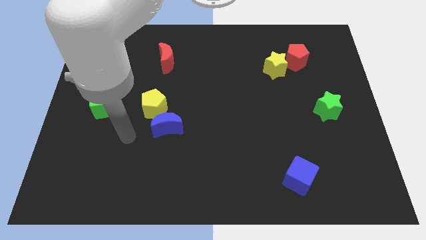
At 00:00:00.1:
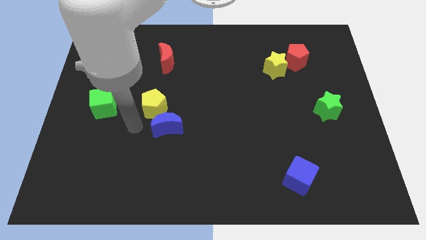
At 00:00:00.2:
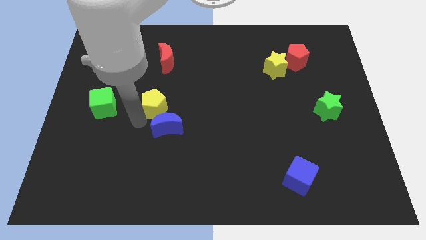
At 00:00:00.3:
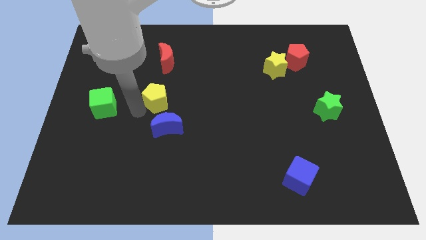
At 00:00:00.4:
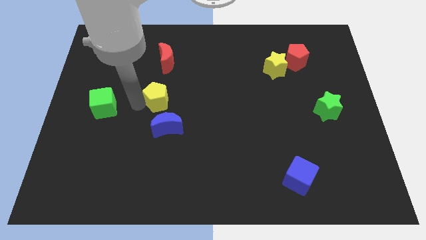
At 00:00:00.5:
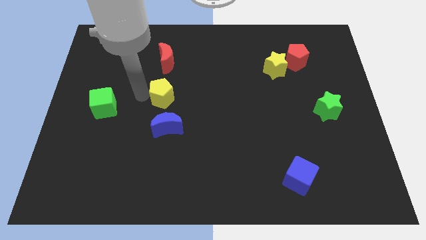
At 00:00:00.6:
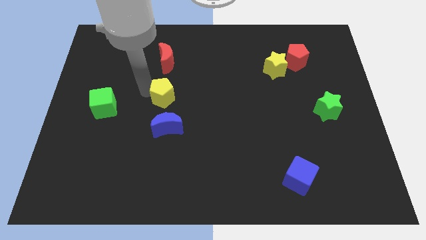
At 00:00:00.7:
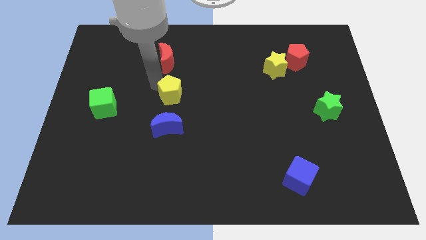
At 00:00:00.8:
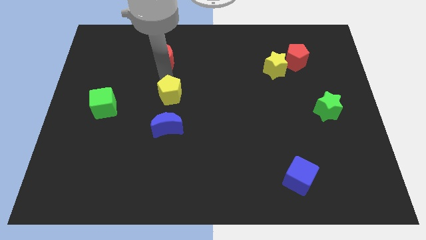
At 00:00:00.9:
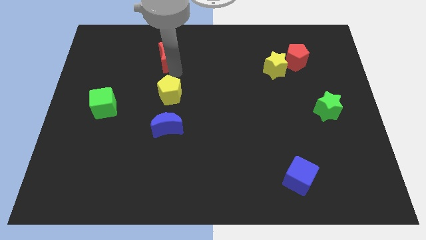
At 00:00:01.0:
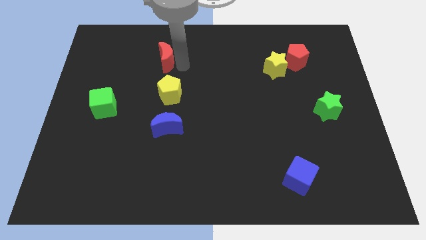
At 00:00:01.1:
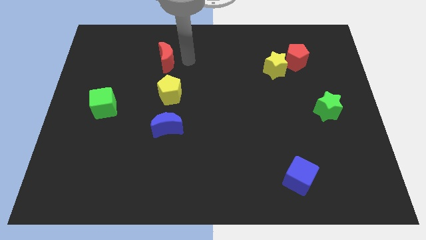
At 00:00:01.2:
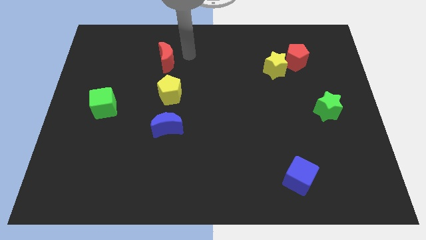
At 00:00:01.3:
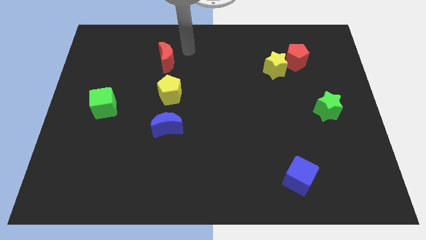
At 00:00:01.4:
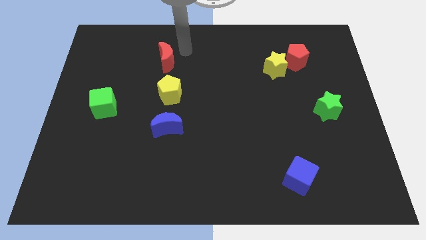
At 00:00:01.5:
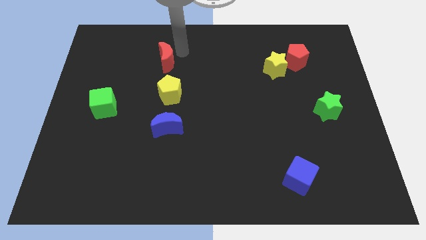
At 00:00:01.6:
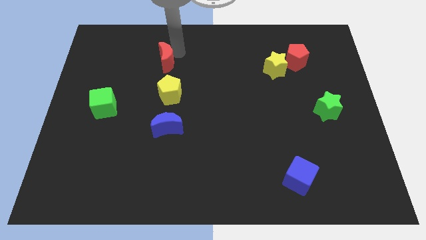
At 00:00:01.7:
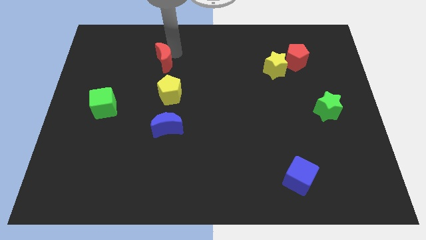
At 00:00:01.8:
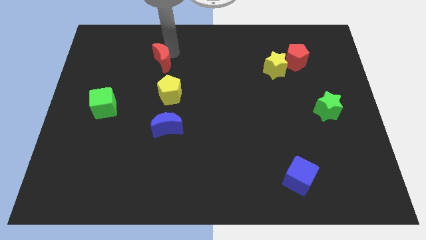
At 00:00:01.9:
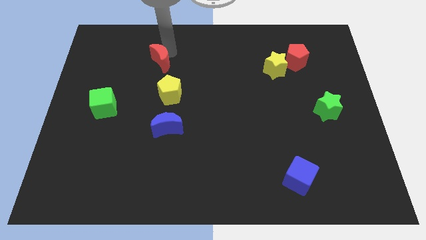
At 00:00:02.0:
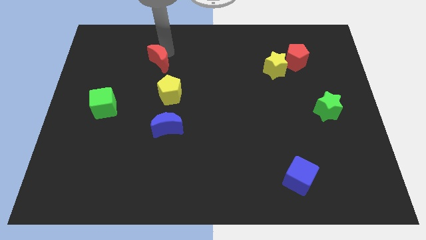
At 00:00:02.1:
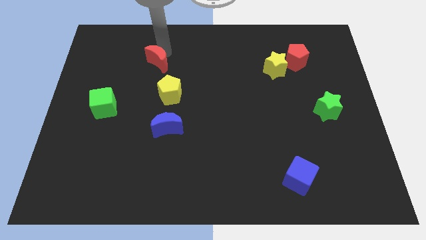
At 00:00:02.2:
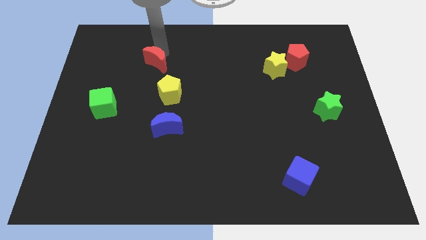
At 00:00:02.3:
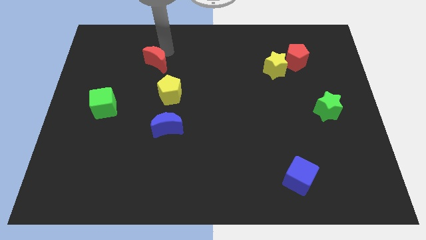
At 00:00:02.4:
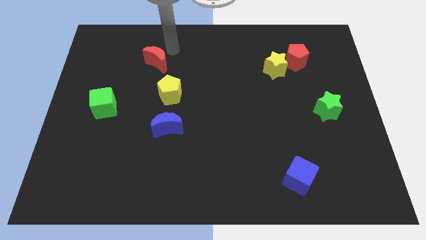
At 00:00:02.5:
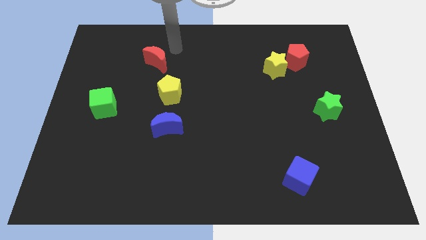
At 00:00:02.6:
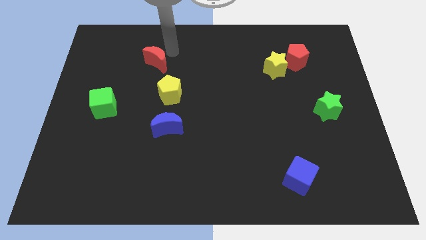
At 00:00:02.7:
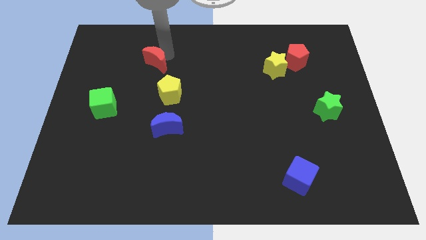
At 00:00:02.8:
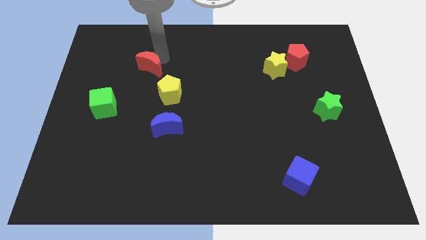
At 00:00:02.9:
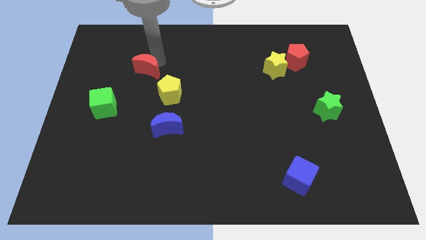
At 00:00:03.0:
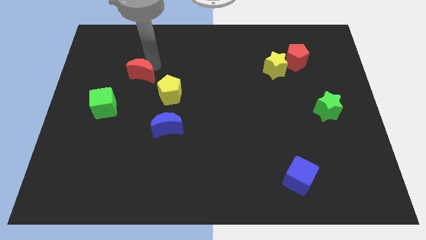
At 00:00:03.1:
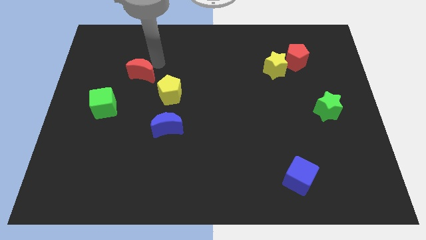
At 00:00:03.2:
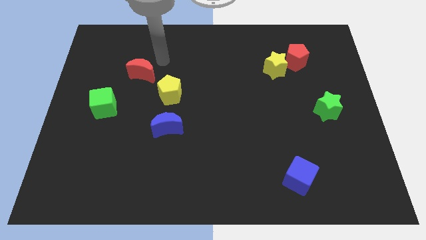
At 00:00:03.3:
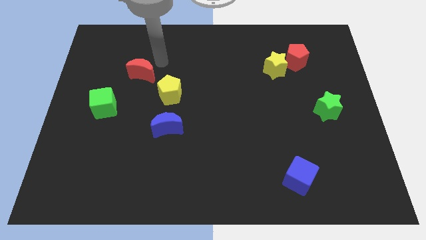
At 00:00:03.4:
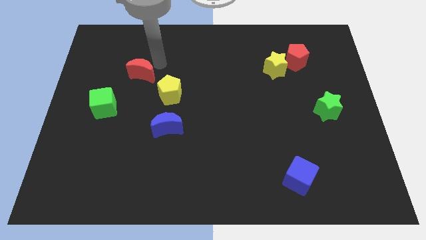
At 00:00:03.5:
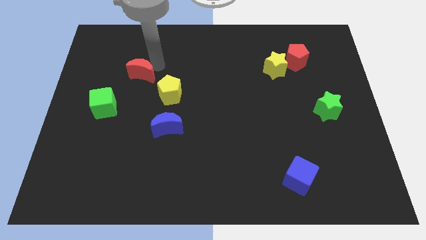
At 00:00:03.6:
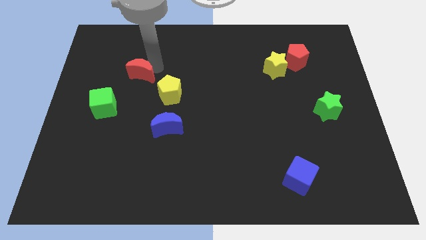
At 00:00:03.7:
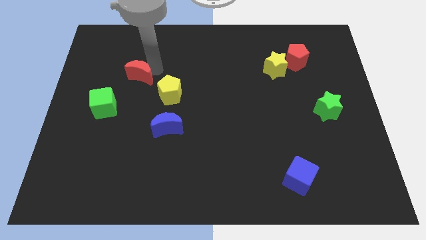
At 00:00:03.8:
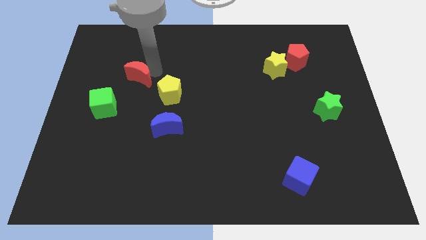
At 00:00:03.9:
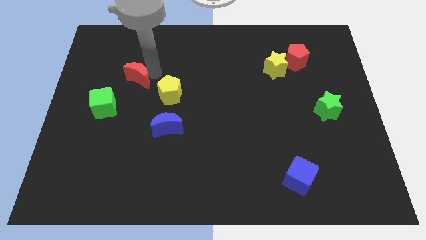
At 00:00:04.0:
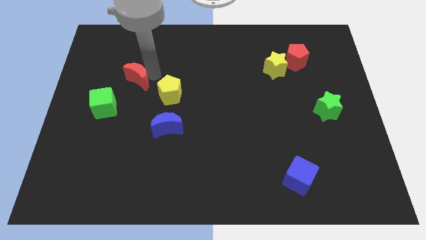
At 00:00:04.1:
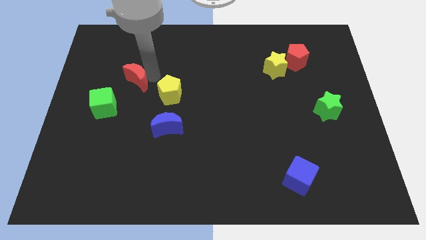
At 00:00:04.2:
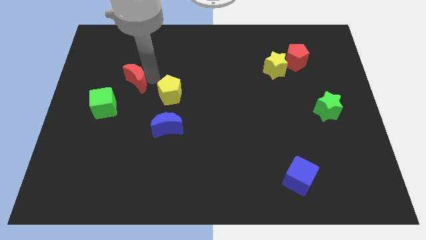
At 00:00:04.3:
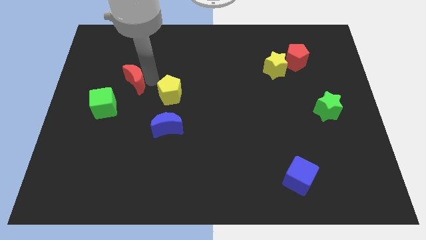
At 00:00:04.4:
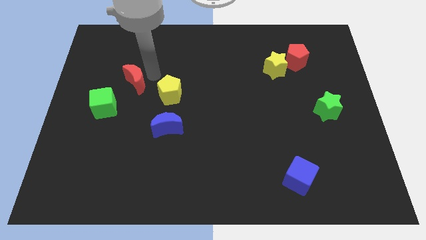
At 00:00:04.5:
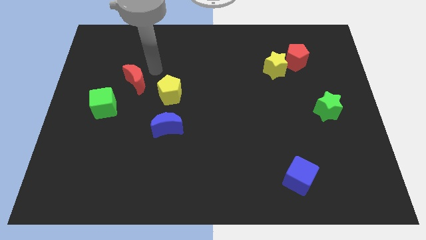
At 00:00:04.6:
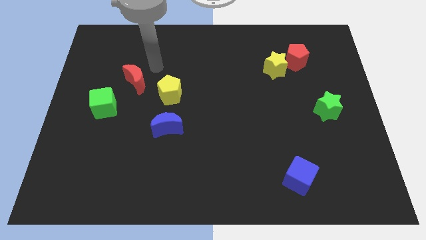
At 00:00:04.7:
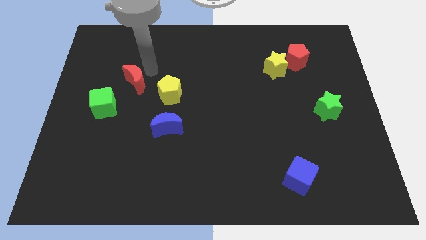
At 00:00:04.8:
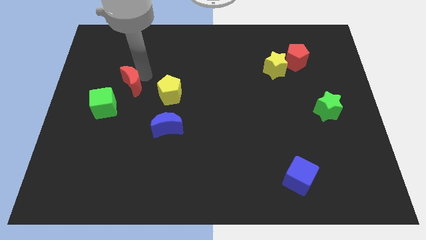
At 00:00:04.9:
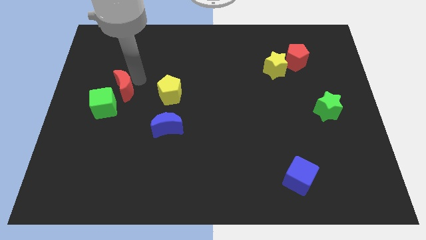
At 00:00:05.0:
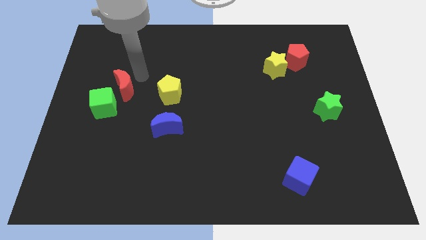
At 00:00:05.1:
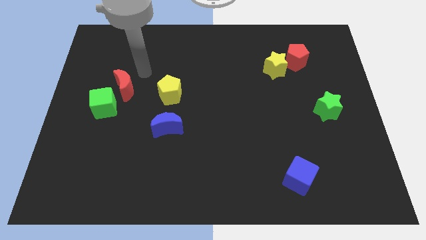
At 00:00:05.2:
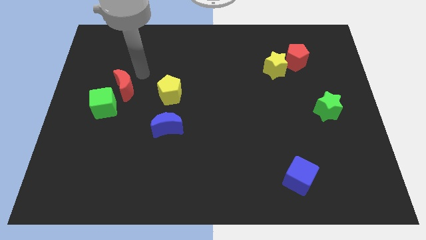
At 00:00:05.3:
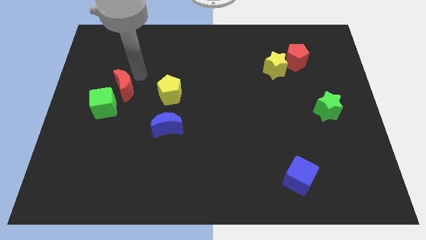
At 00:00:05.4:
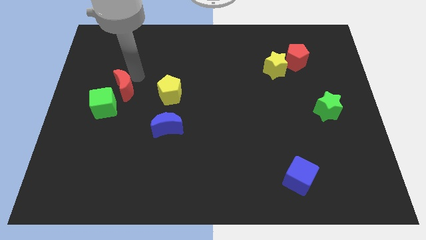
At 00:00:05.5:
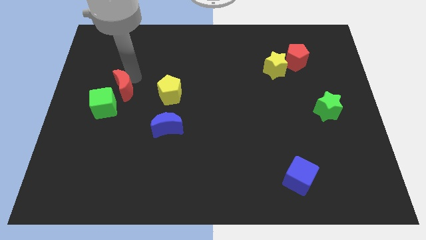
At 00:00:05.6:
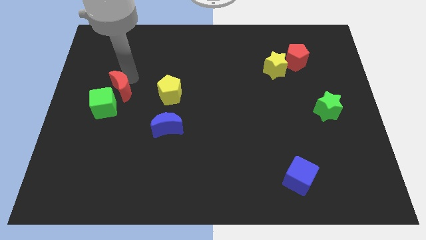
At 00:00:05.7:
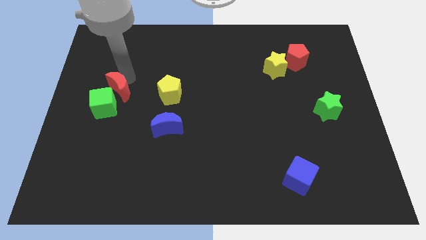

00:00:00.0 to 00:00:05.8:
put the red moon to the green cube

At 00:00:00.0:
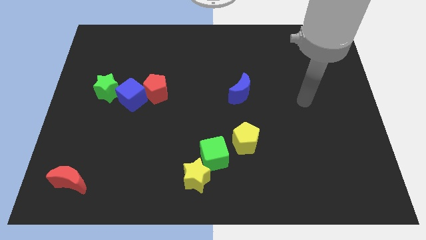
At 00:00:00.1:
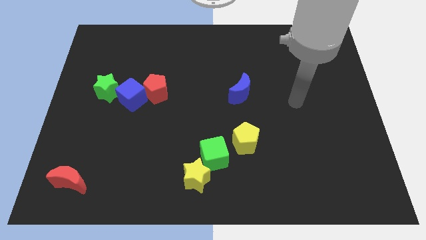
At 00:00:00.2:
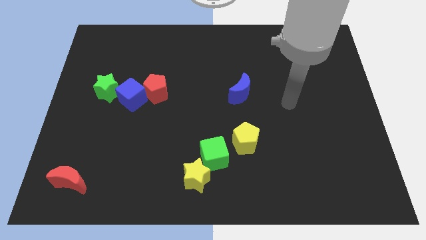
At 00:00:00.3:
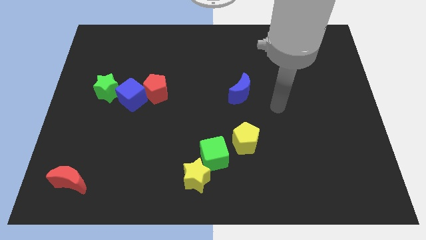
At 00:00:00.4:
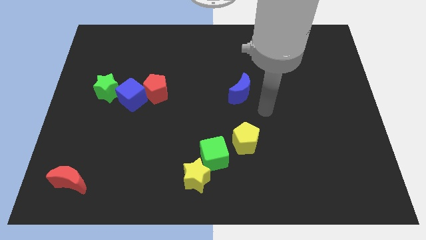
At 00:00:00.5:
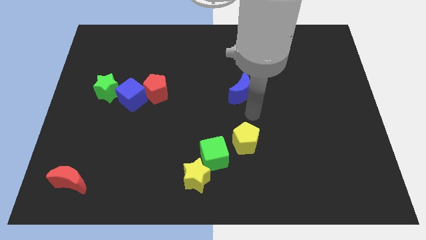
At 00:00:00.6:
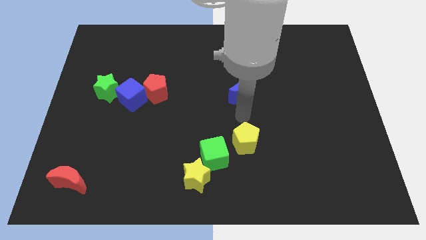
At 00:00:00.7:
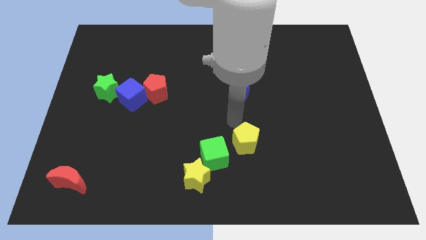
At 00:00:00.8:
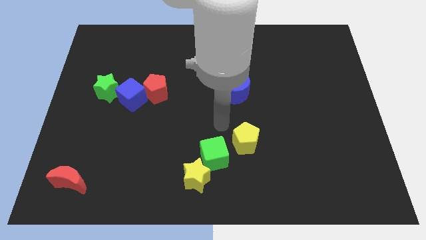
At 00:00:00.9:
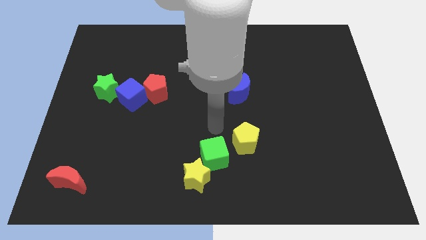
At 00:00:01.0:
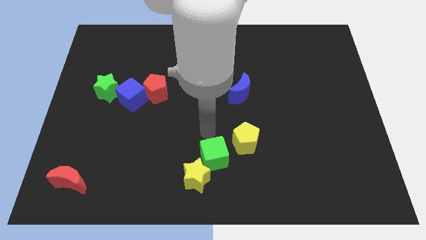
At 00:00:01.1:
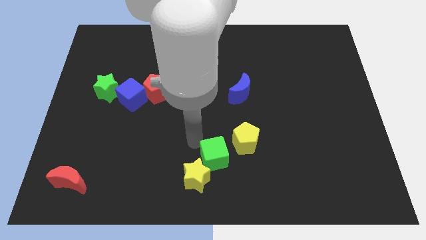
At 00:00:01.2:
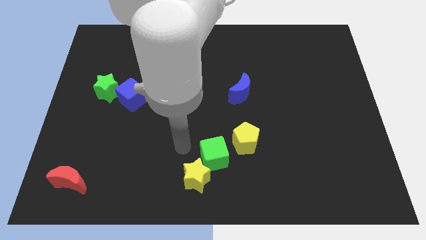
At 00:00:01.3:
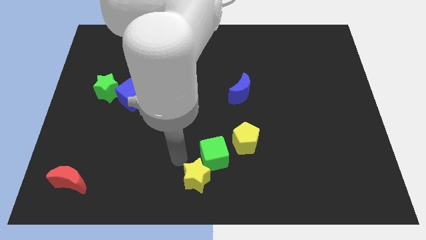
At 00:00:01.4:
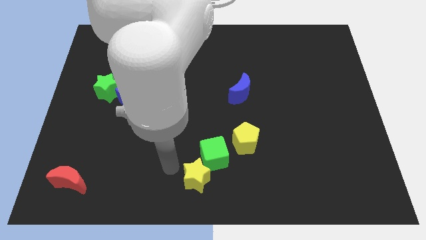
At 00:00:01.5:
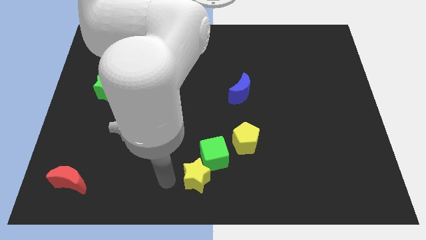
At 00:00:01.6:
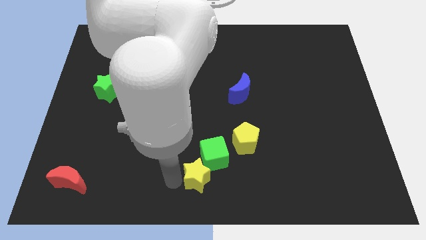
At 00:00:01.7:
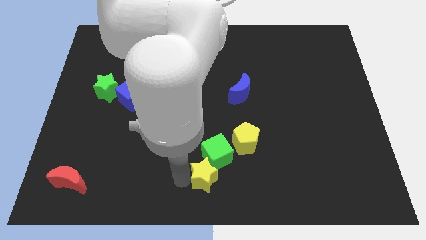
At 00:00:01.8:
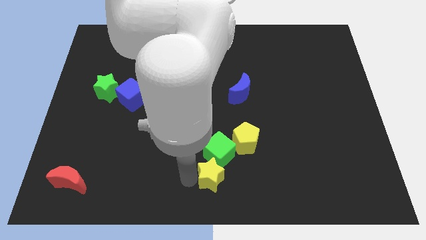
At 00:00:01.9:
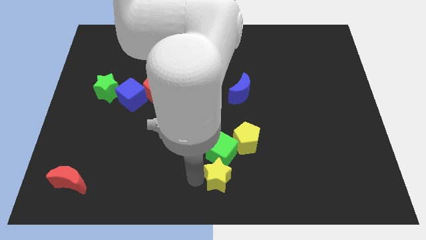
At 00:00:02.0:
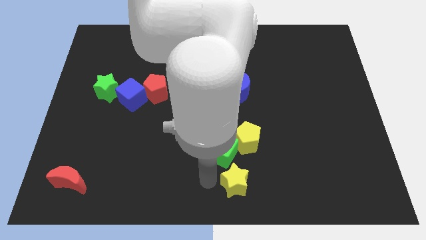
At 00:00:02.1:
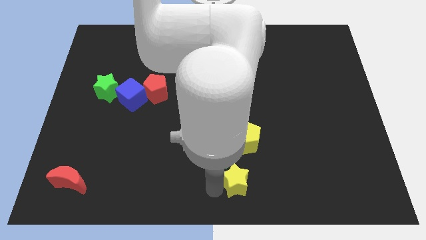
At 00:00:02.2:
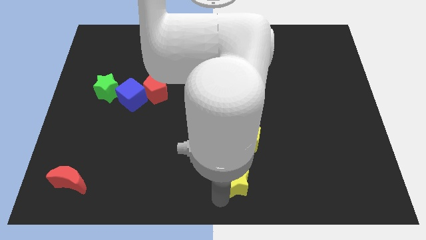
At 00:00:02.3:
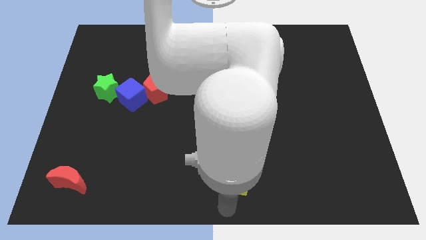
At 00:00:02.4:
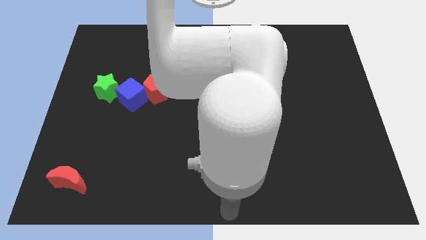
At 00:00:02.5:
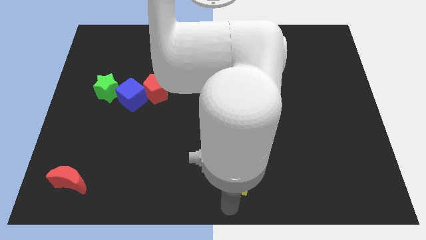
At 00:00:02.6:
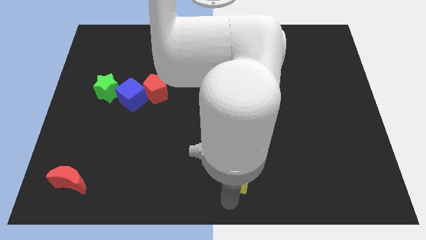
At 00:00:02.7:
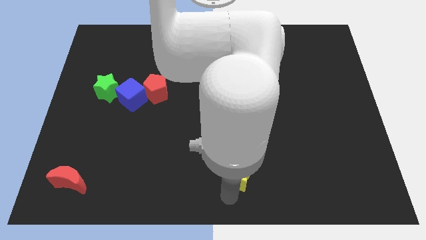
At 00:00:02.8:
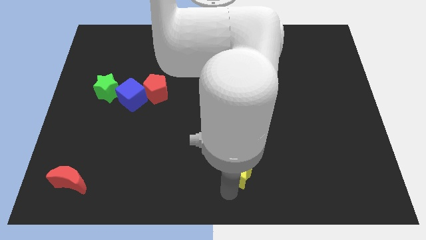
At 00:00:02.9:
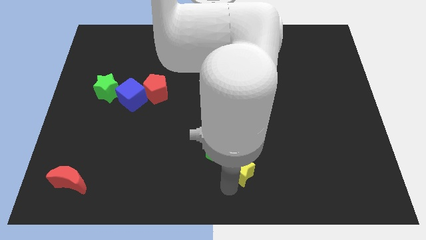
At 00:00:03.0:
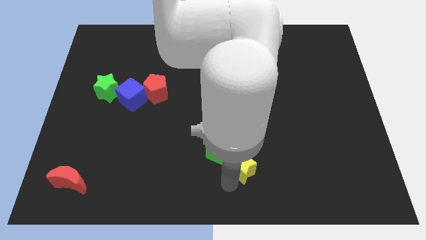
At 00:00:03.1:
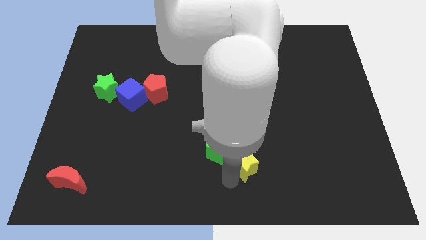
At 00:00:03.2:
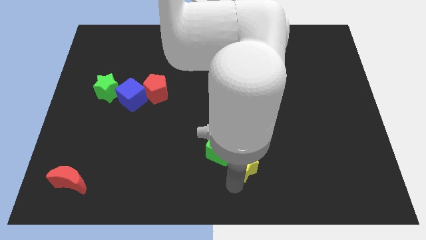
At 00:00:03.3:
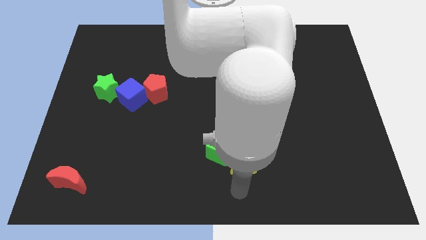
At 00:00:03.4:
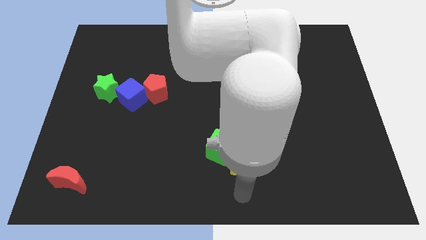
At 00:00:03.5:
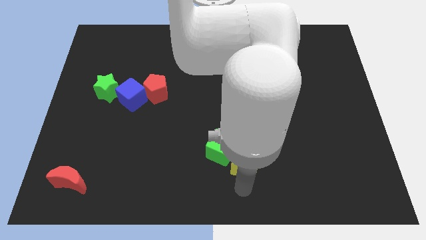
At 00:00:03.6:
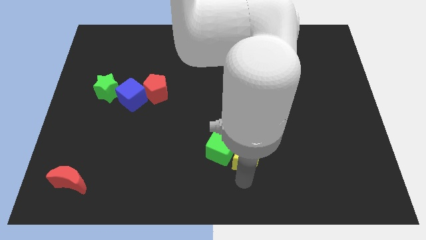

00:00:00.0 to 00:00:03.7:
move the yellow star close to the yellow pentagon
